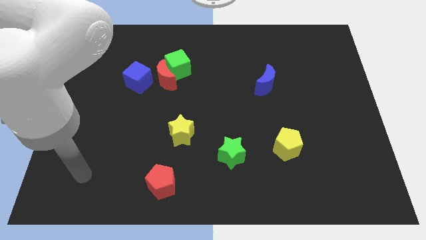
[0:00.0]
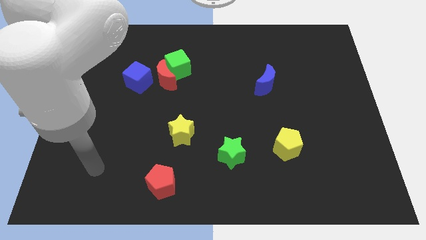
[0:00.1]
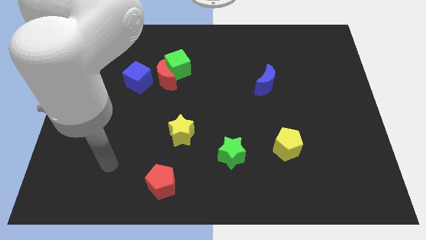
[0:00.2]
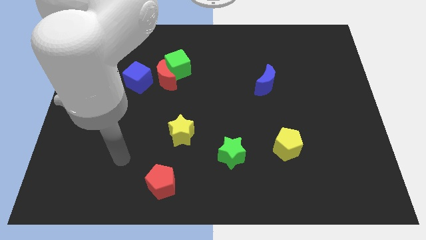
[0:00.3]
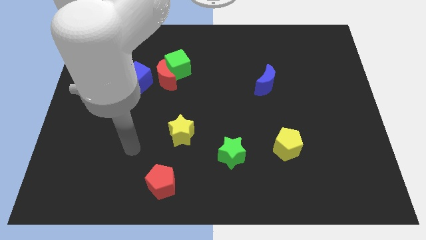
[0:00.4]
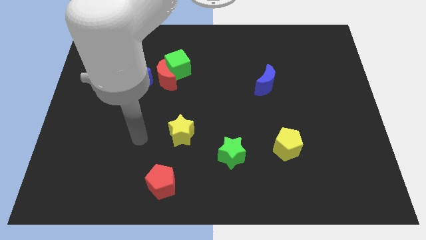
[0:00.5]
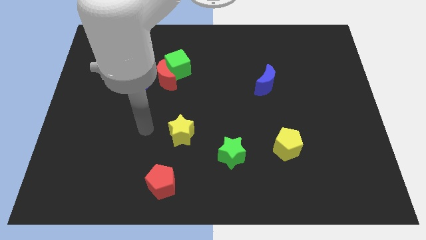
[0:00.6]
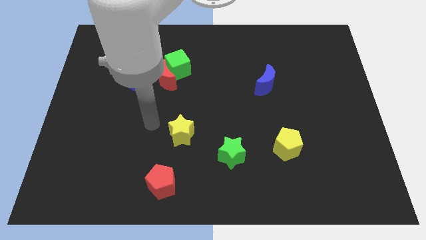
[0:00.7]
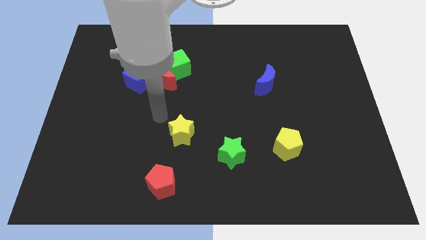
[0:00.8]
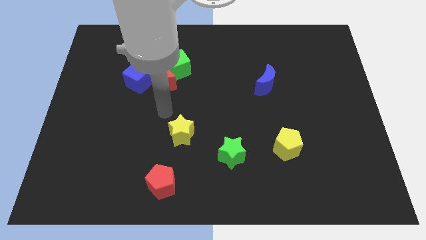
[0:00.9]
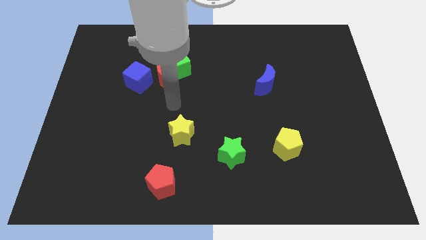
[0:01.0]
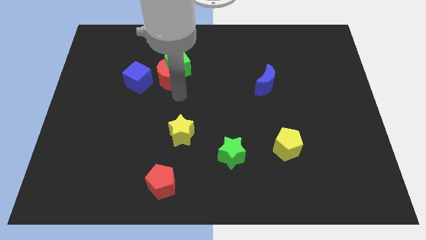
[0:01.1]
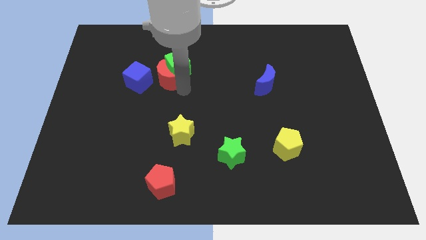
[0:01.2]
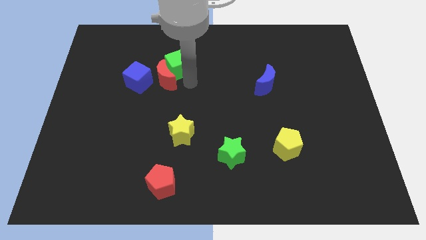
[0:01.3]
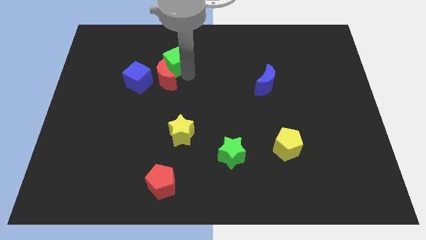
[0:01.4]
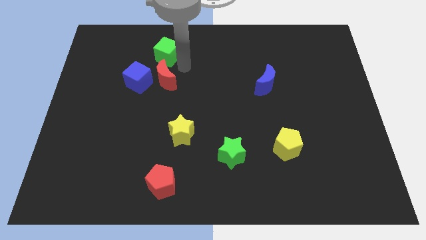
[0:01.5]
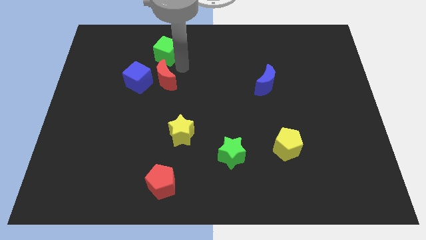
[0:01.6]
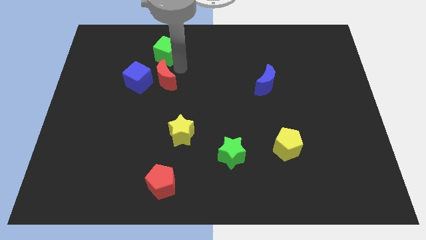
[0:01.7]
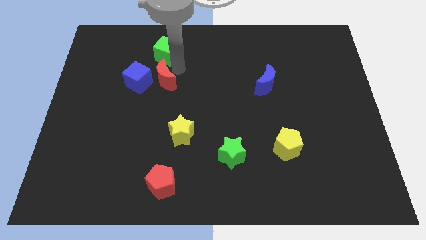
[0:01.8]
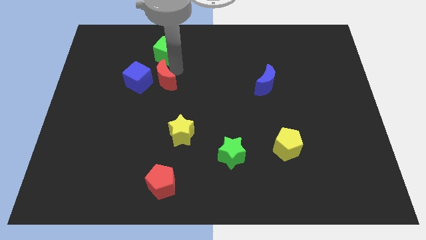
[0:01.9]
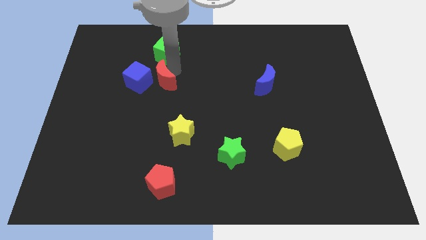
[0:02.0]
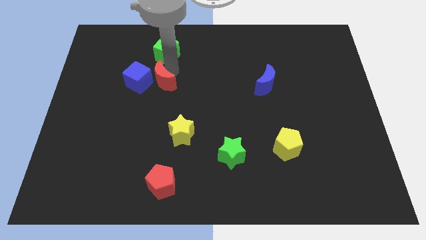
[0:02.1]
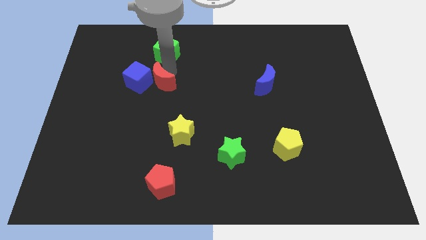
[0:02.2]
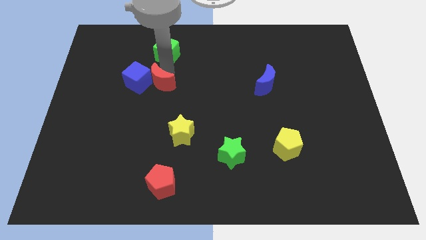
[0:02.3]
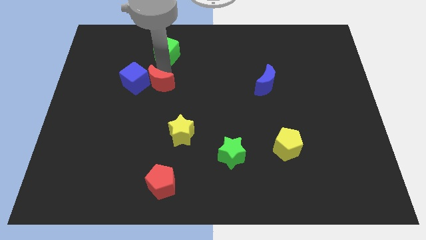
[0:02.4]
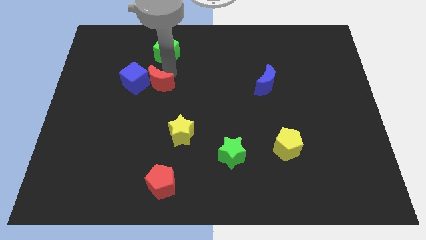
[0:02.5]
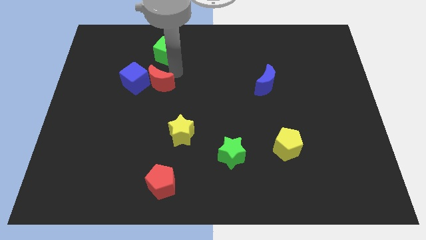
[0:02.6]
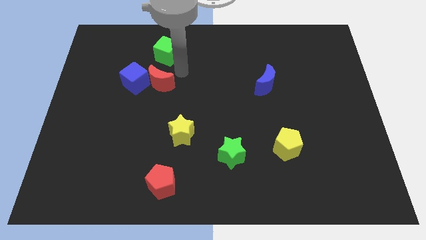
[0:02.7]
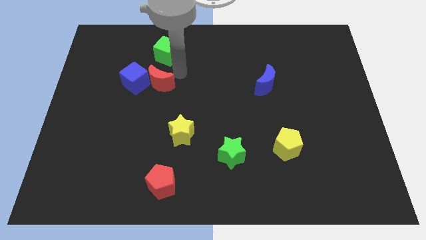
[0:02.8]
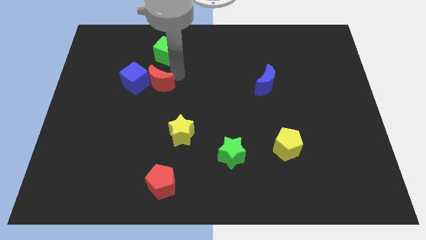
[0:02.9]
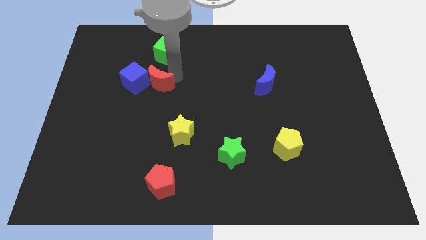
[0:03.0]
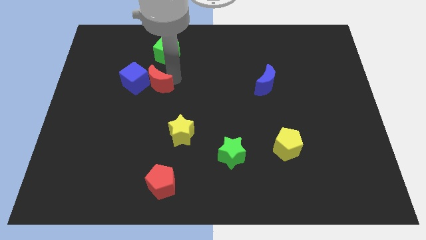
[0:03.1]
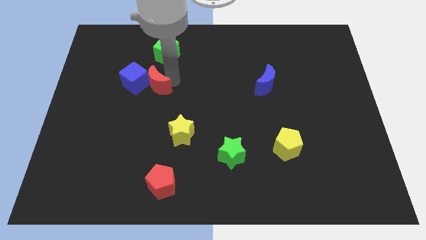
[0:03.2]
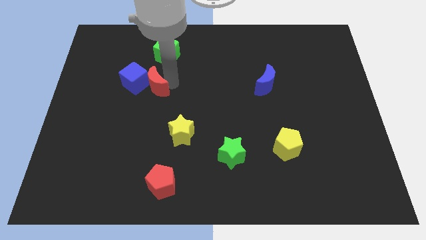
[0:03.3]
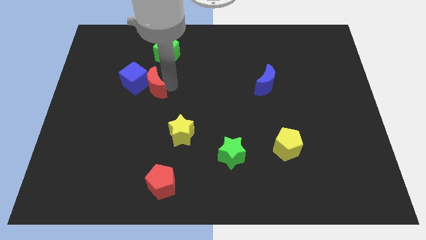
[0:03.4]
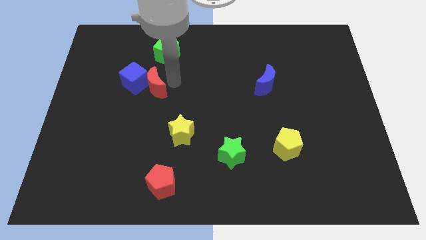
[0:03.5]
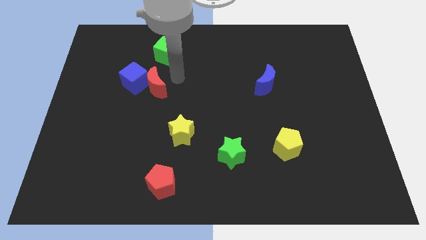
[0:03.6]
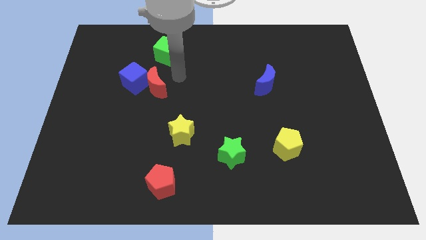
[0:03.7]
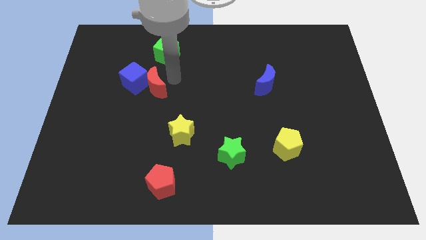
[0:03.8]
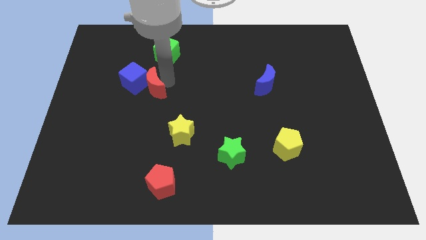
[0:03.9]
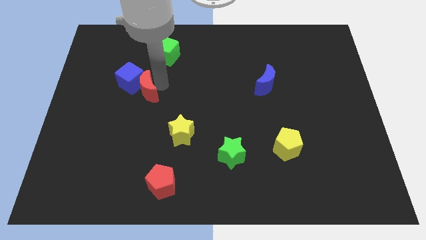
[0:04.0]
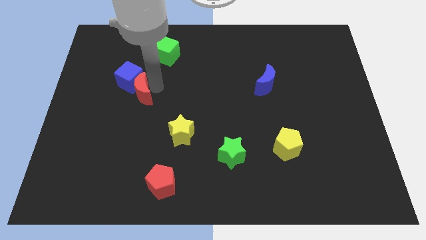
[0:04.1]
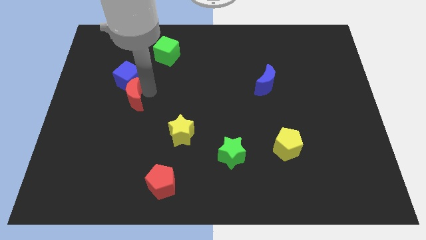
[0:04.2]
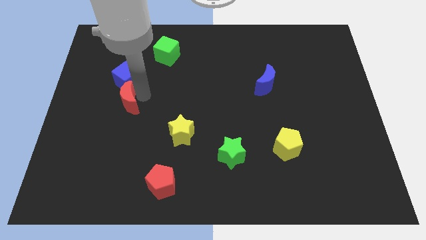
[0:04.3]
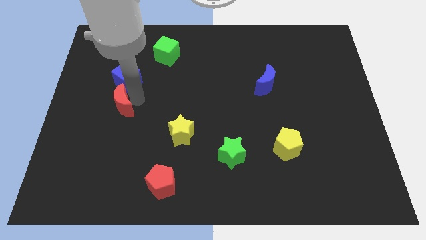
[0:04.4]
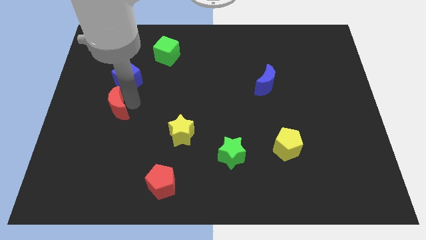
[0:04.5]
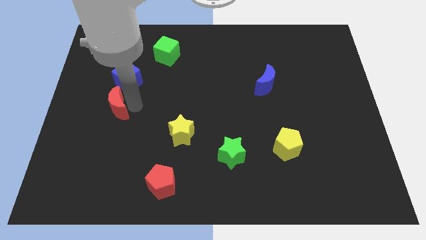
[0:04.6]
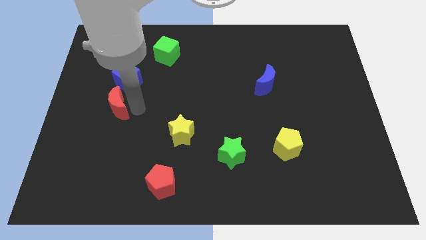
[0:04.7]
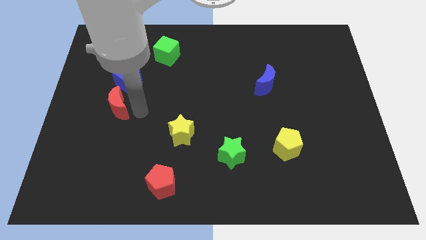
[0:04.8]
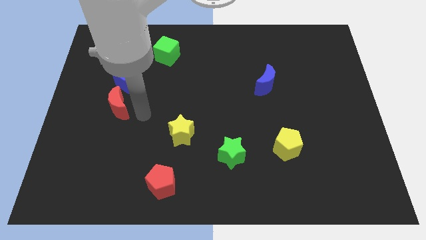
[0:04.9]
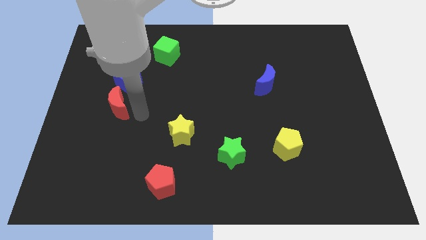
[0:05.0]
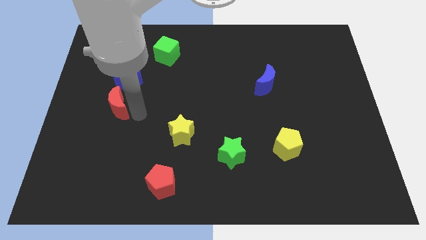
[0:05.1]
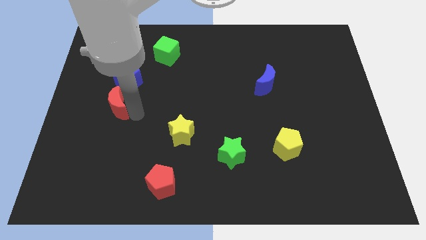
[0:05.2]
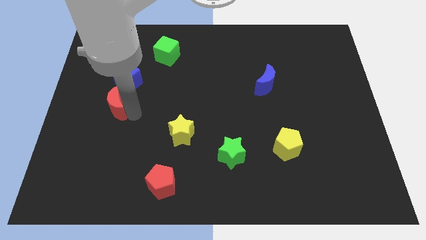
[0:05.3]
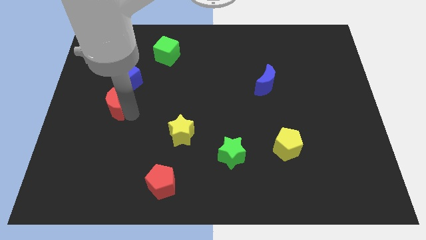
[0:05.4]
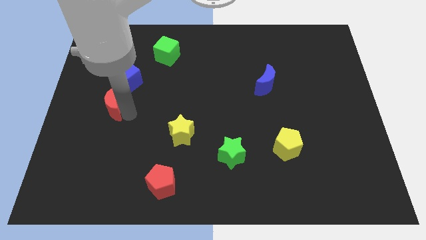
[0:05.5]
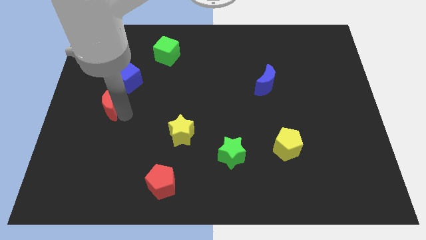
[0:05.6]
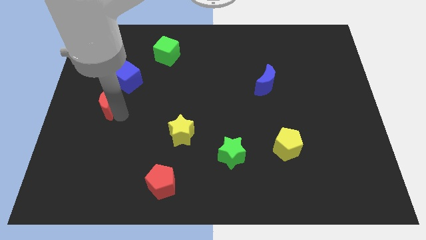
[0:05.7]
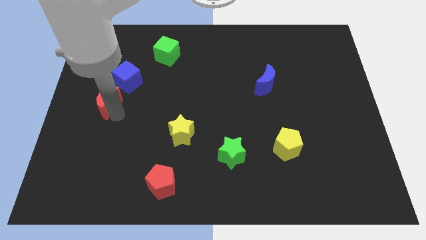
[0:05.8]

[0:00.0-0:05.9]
push the red moon to the center left
